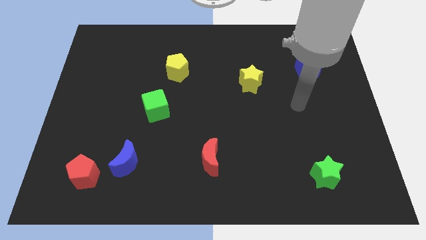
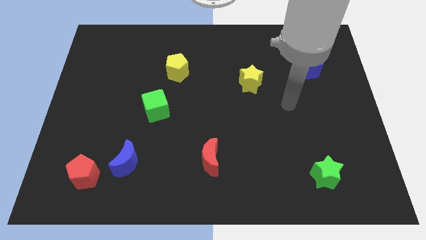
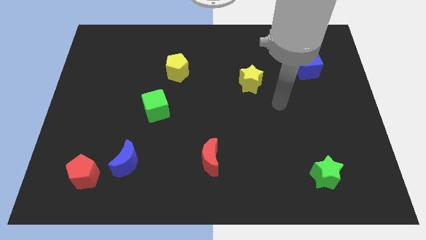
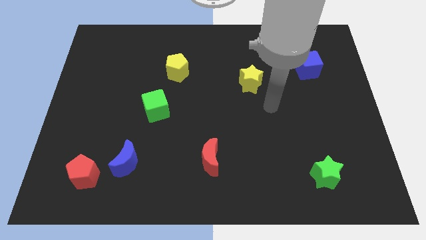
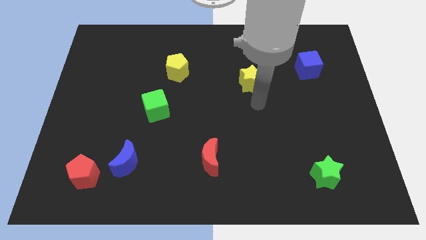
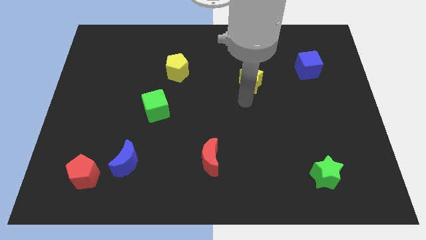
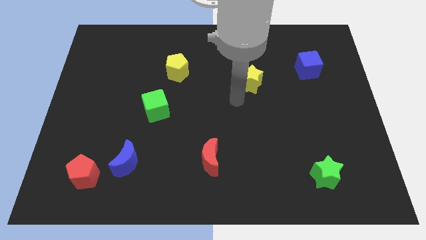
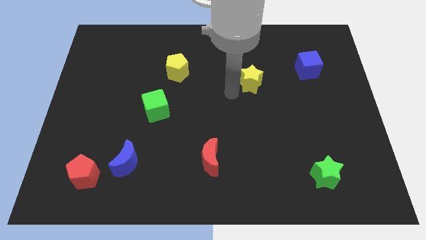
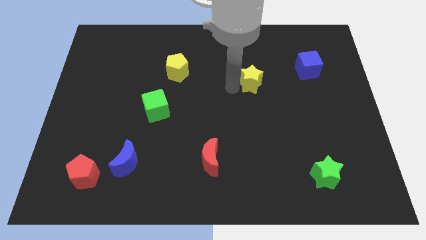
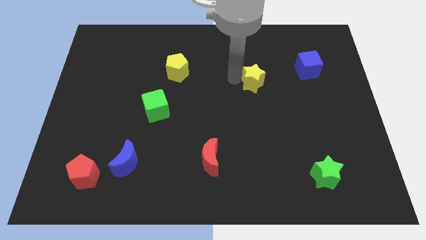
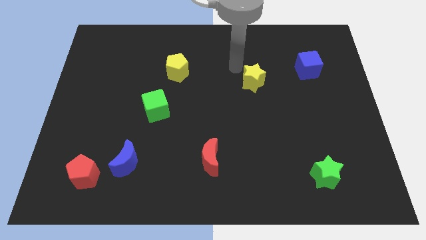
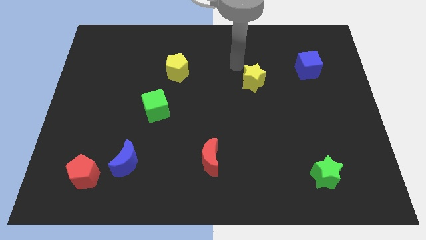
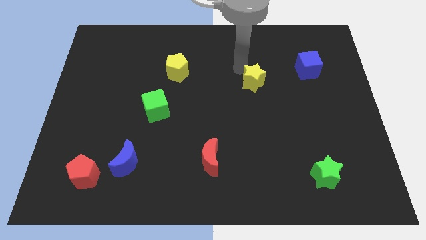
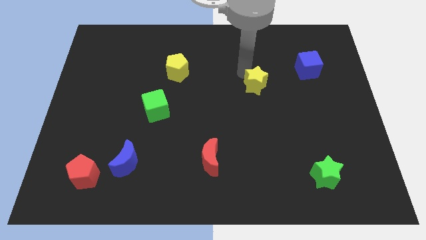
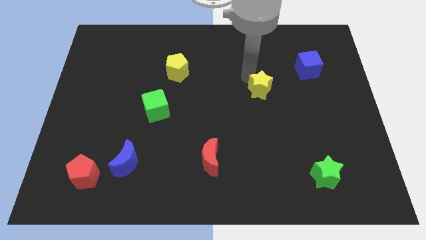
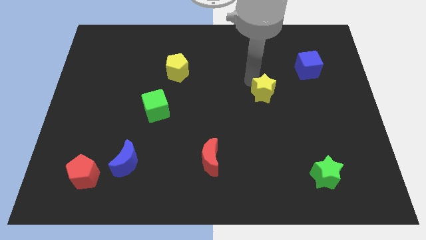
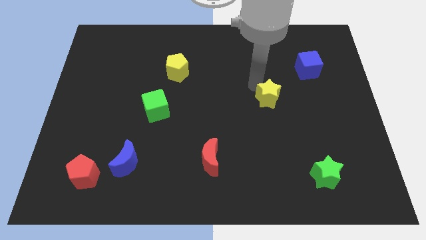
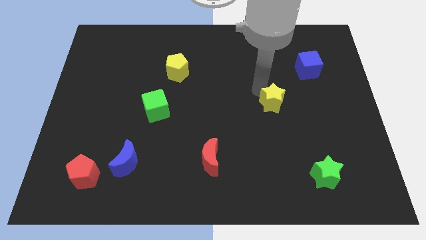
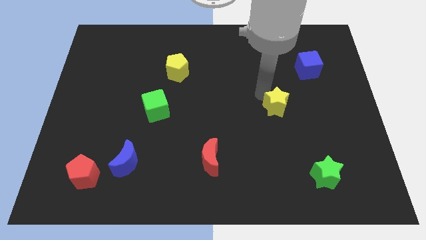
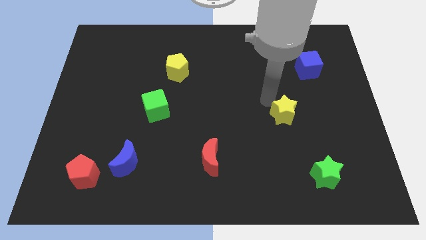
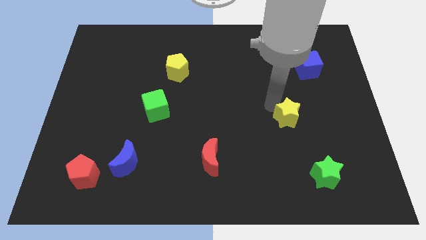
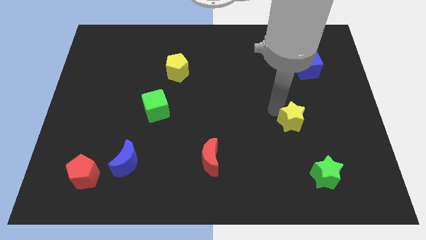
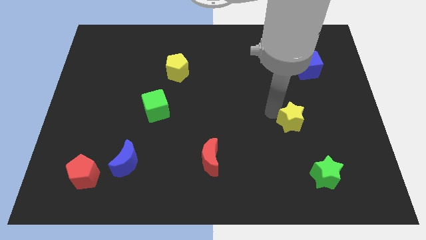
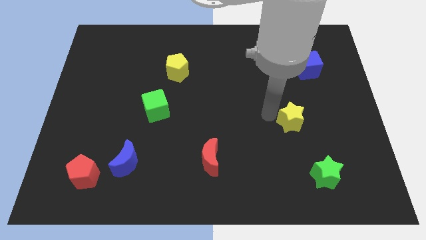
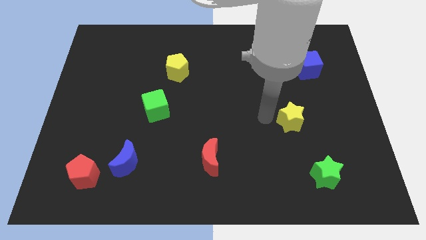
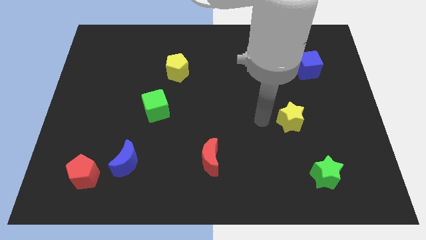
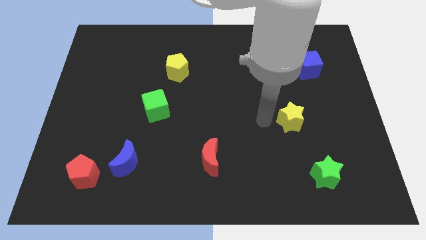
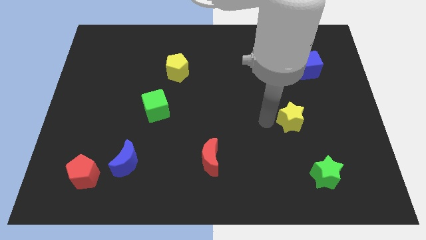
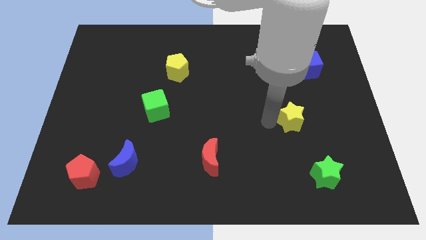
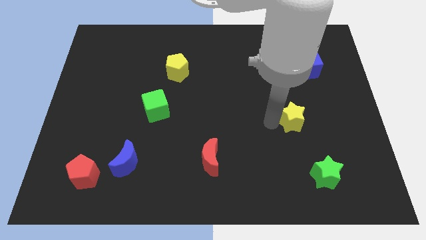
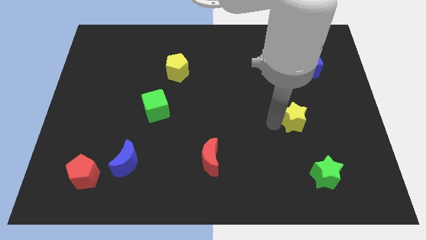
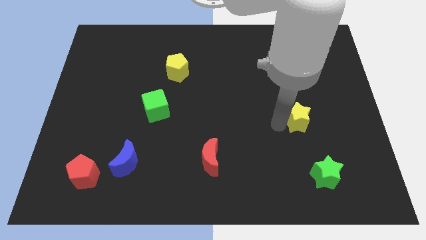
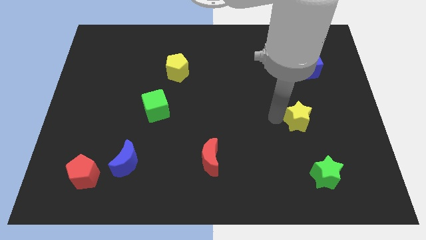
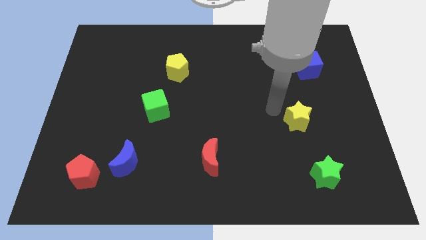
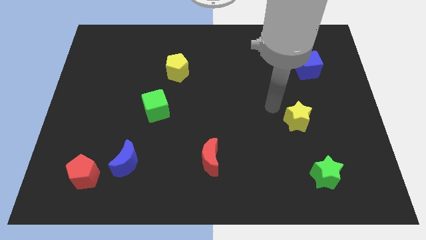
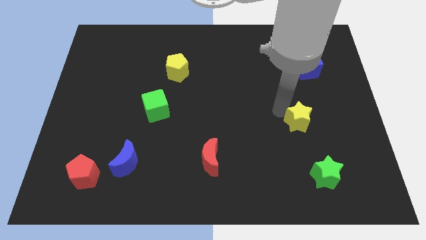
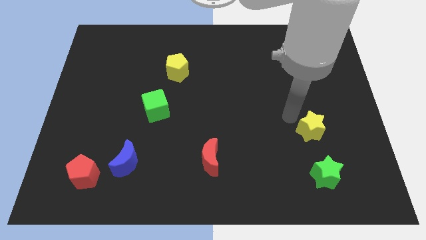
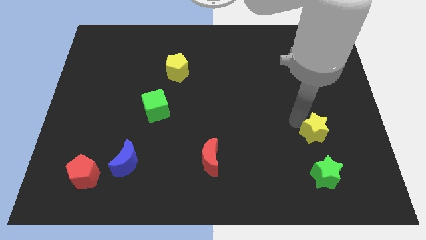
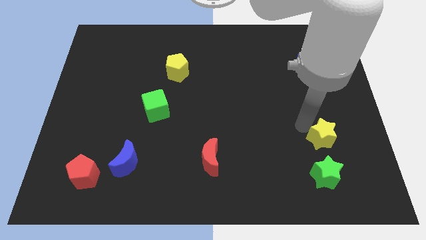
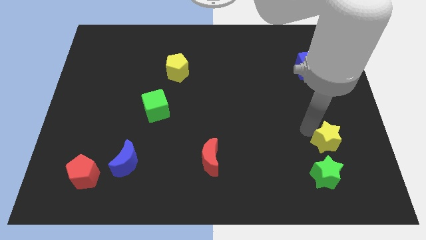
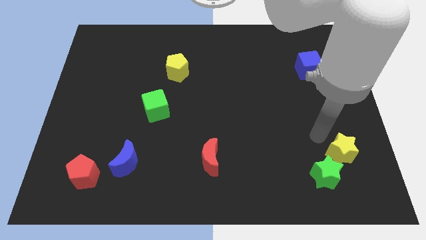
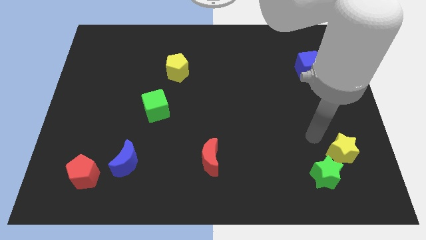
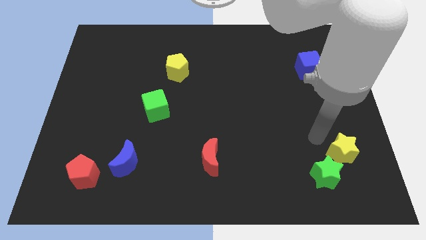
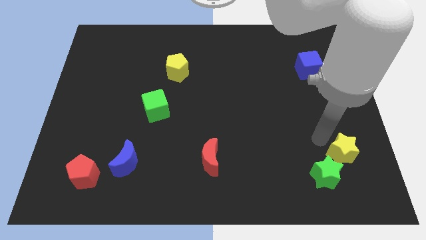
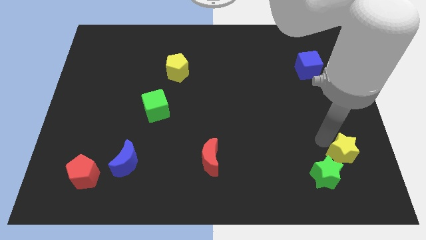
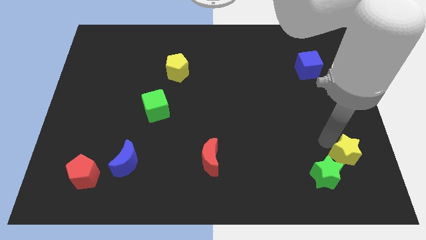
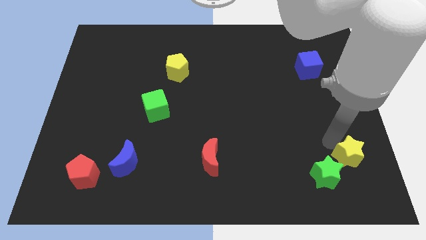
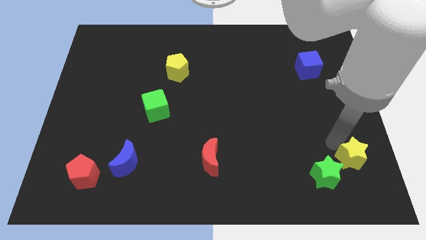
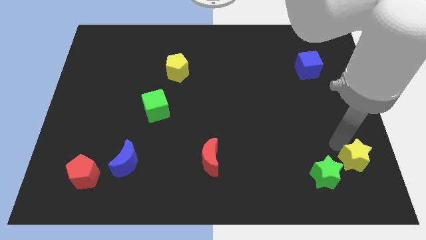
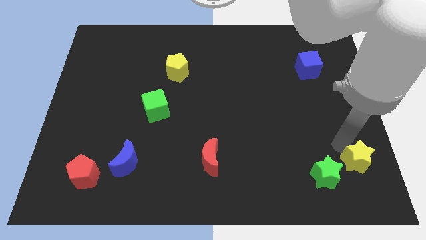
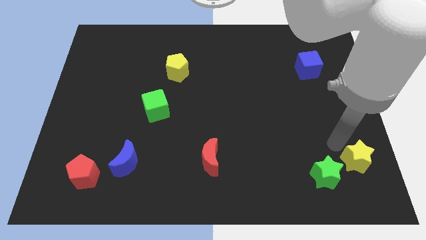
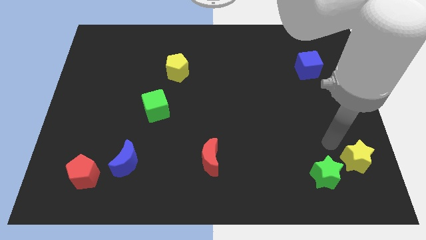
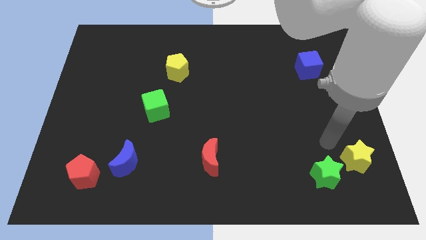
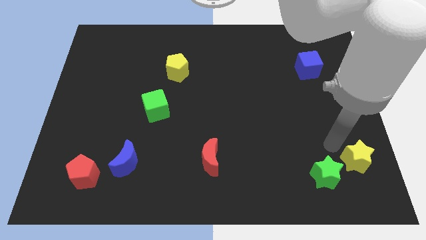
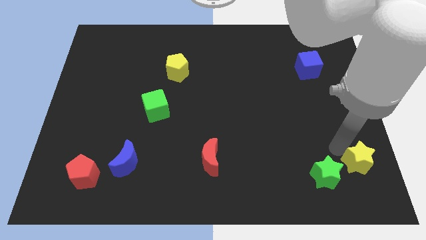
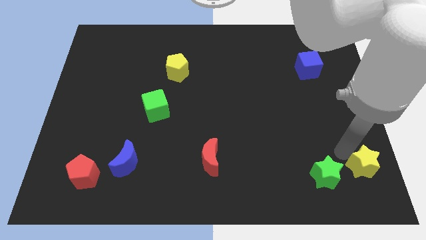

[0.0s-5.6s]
put the yellow star to the lower right corner

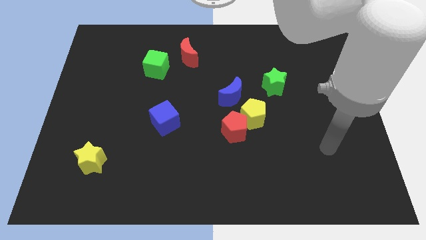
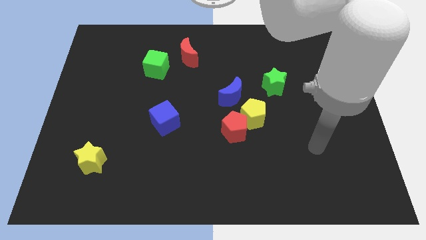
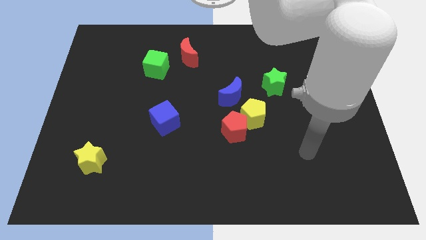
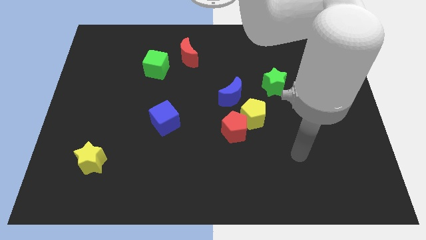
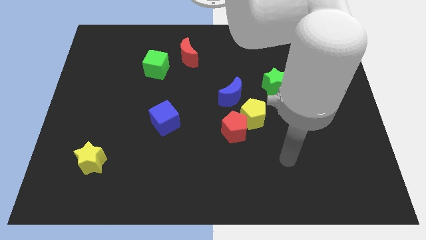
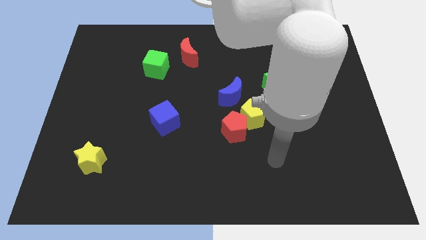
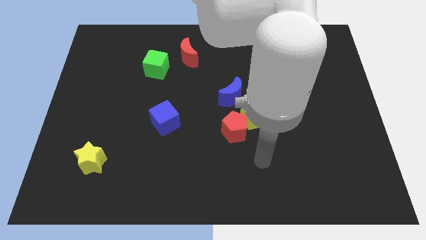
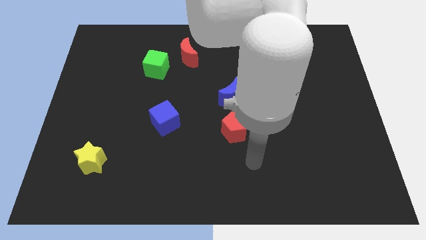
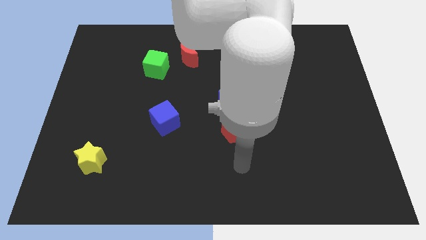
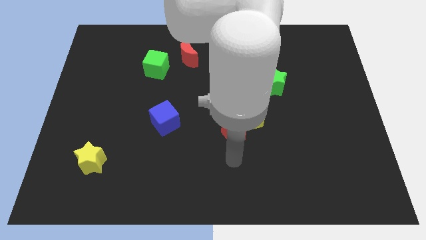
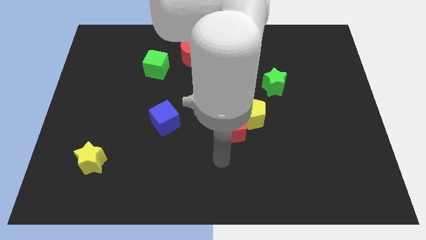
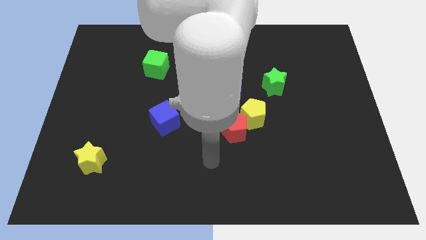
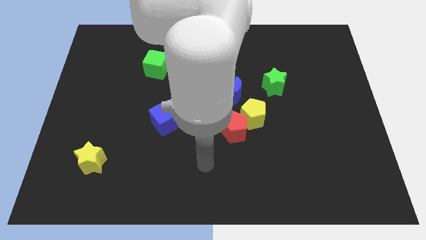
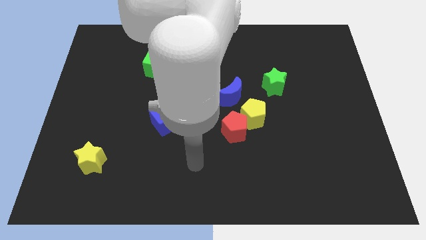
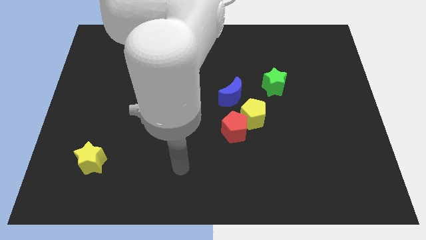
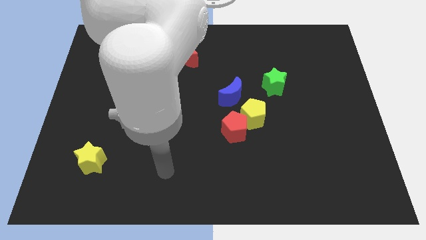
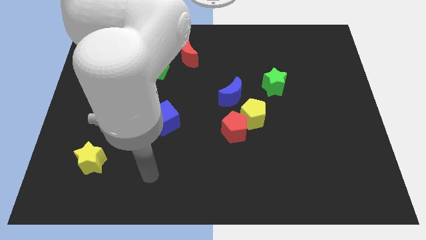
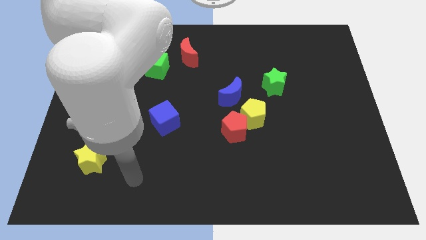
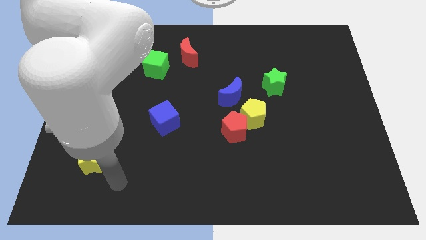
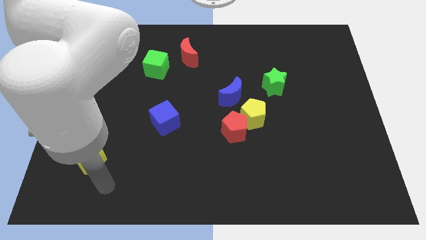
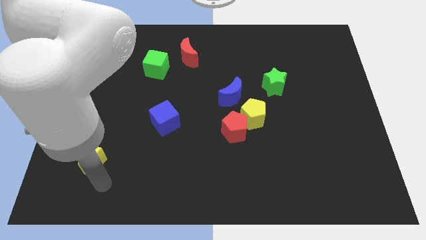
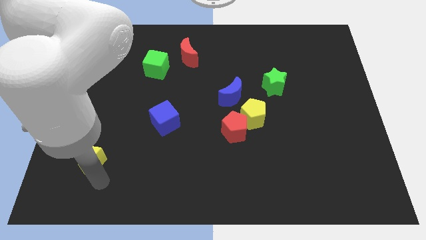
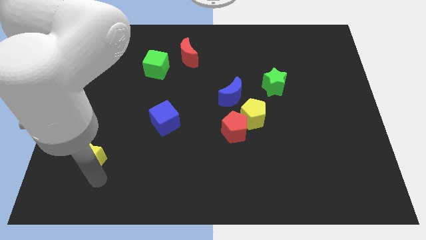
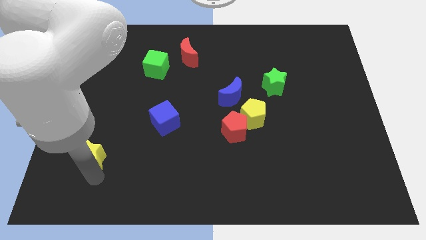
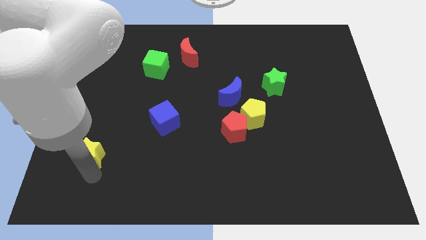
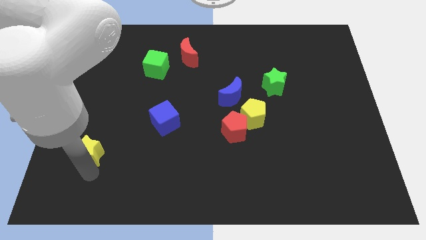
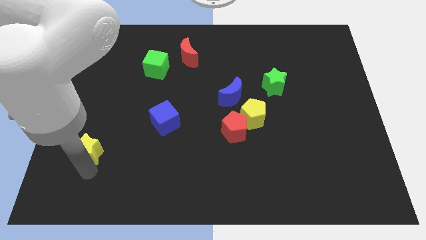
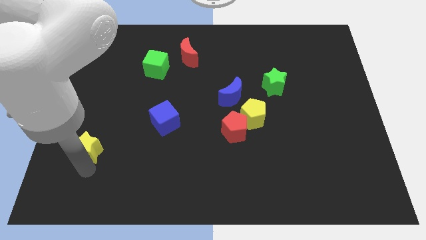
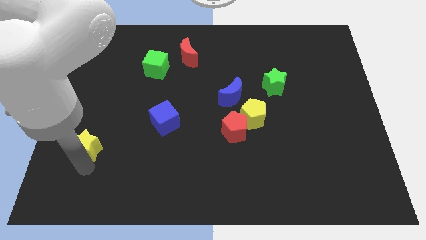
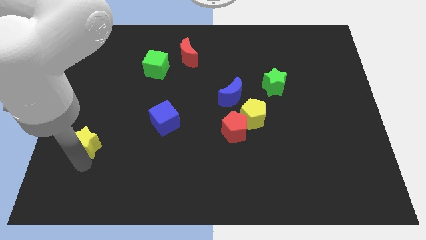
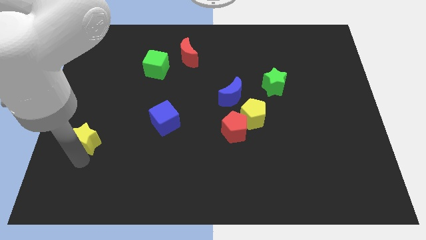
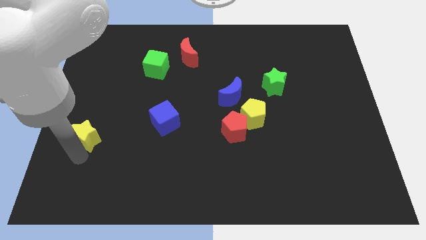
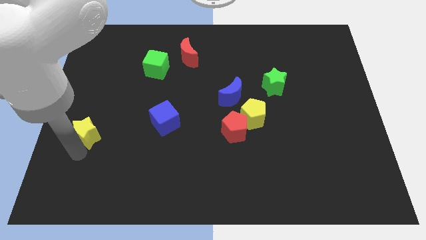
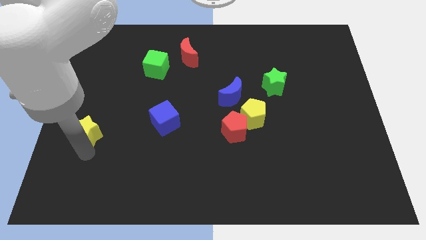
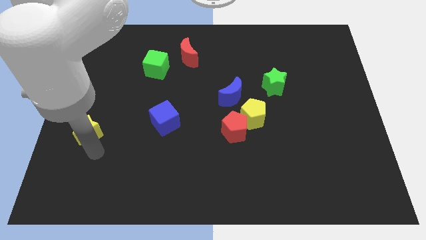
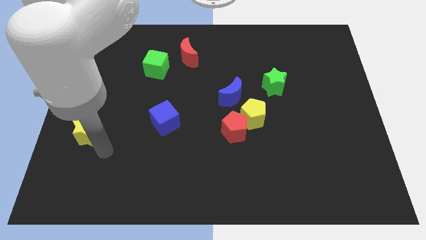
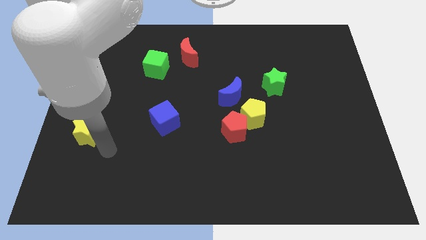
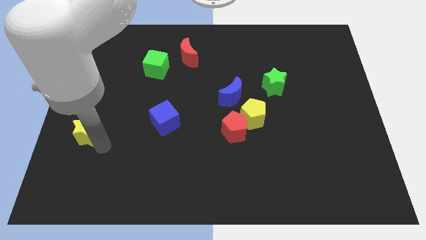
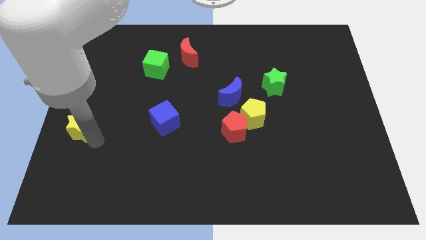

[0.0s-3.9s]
put the yellow star to the center left
